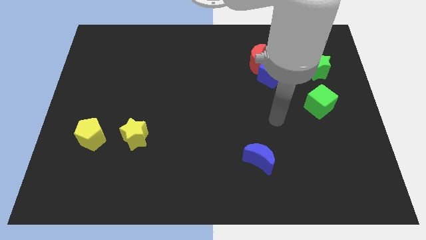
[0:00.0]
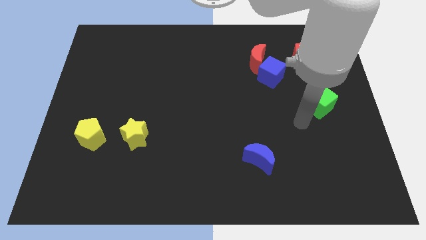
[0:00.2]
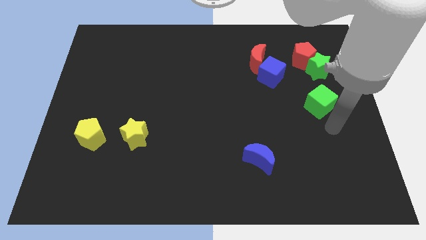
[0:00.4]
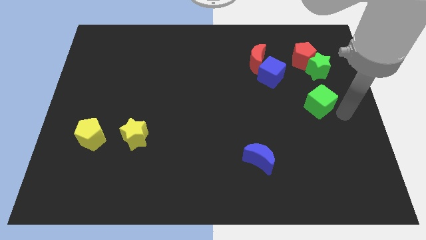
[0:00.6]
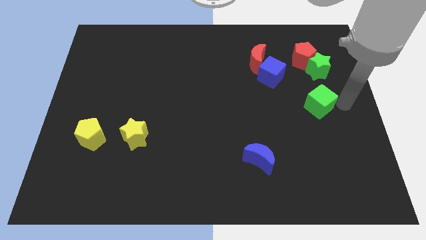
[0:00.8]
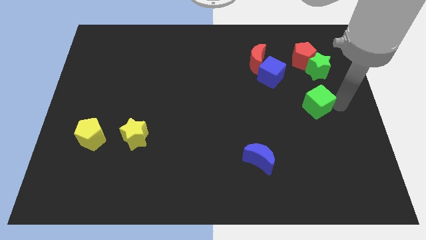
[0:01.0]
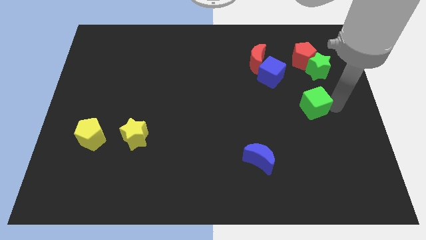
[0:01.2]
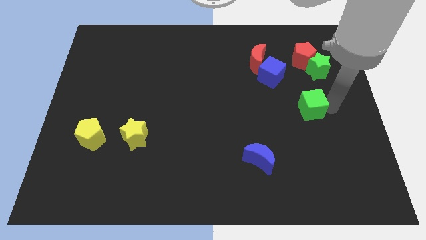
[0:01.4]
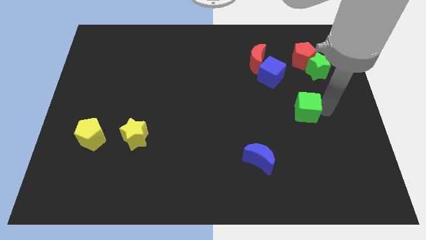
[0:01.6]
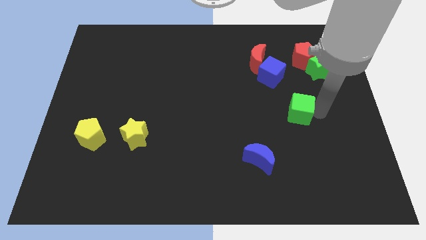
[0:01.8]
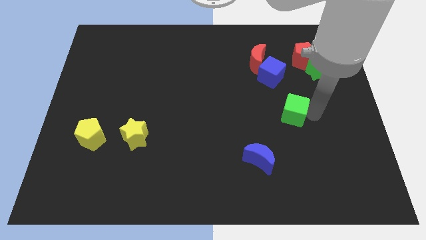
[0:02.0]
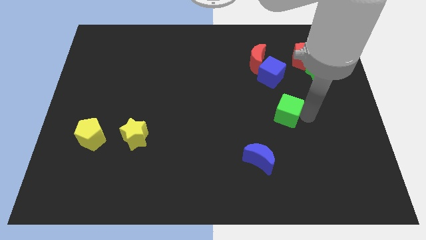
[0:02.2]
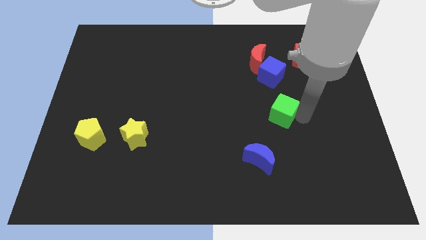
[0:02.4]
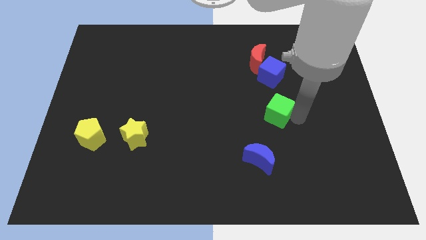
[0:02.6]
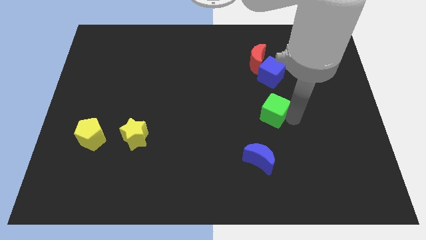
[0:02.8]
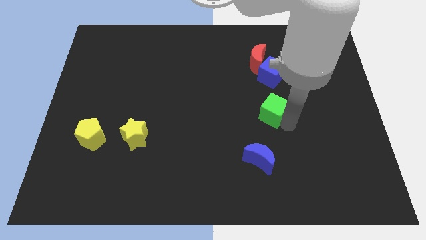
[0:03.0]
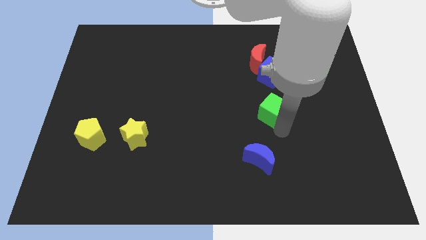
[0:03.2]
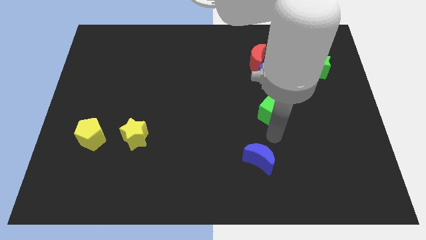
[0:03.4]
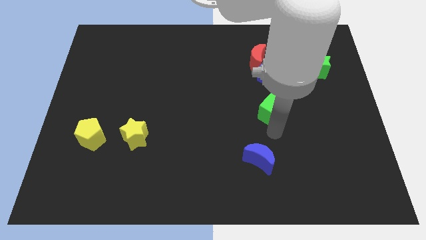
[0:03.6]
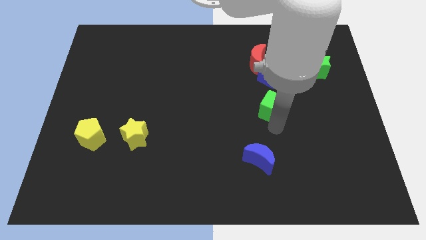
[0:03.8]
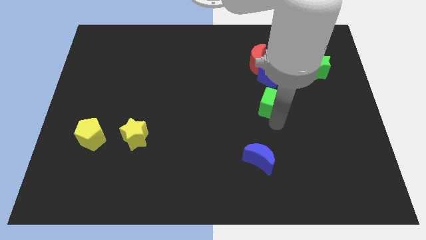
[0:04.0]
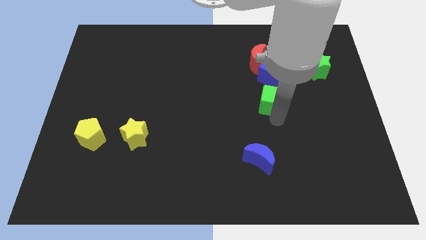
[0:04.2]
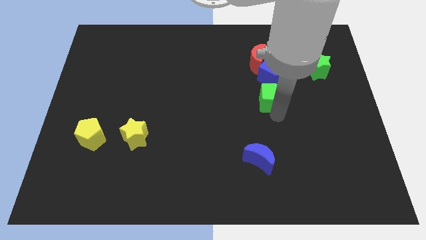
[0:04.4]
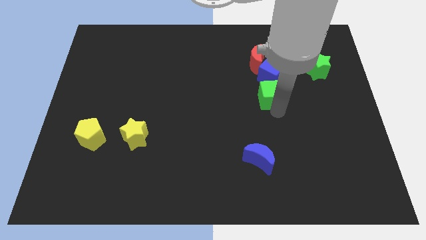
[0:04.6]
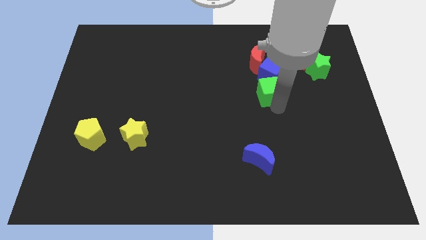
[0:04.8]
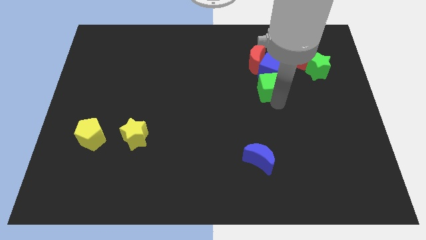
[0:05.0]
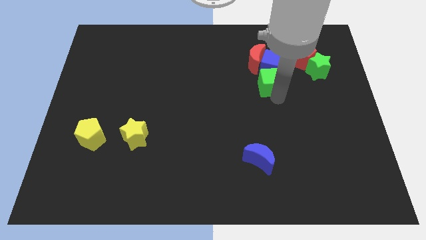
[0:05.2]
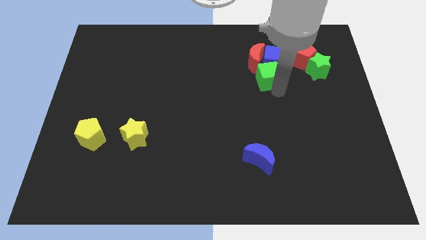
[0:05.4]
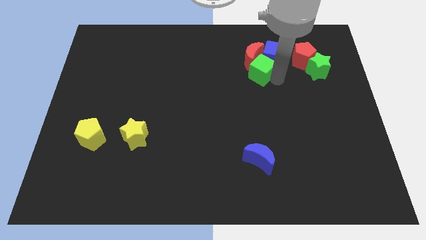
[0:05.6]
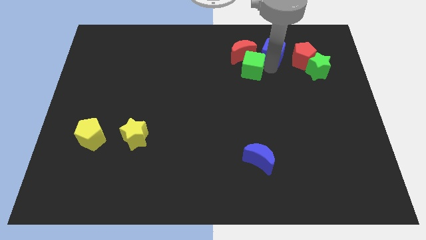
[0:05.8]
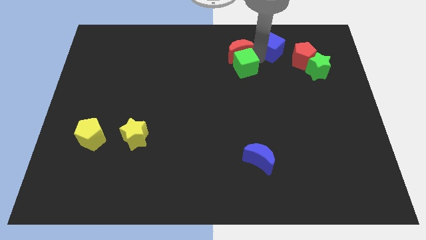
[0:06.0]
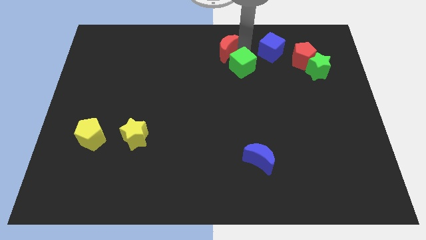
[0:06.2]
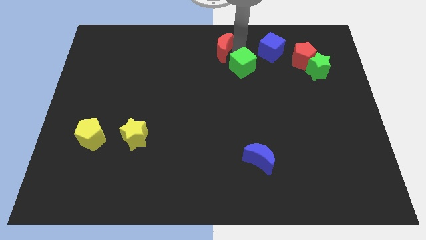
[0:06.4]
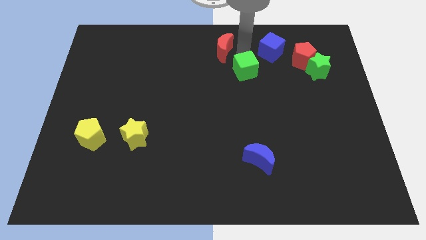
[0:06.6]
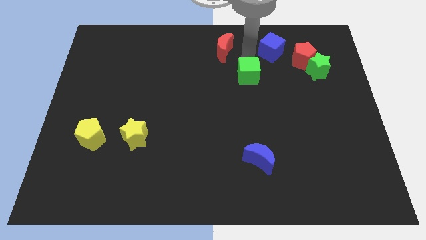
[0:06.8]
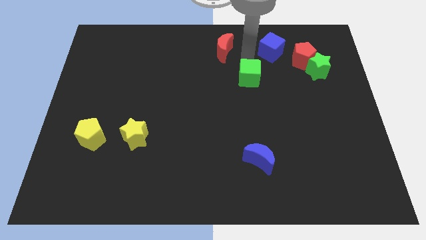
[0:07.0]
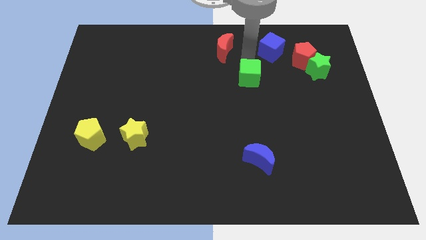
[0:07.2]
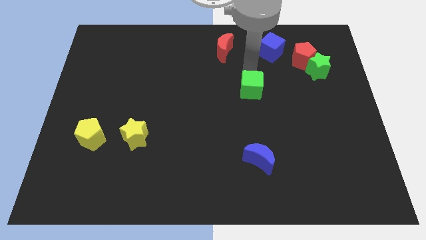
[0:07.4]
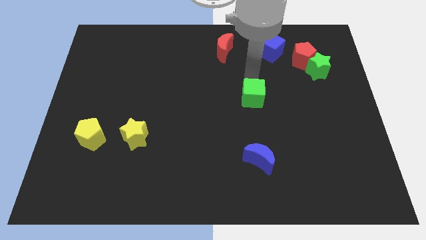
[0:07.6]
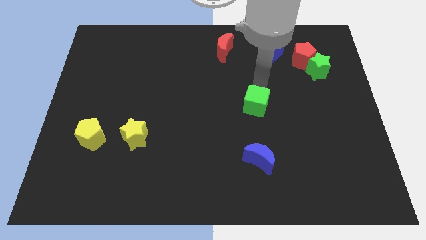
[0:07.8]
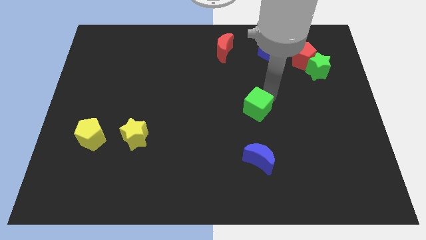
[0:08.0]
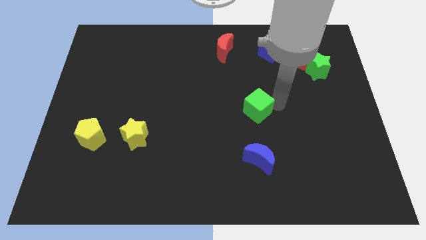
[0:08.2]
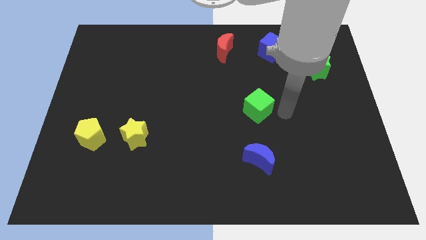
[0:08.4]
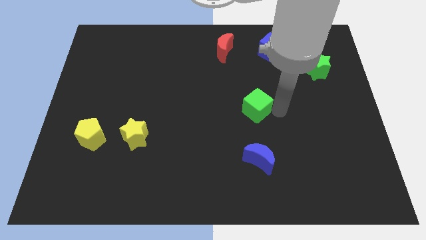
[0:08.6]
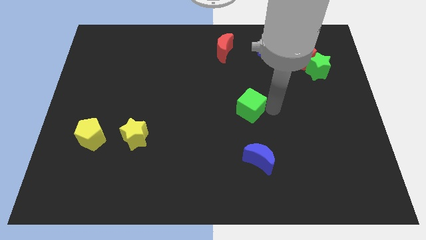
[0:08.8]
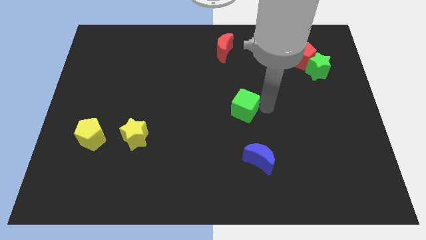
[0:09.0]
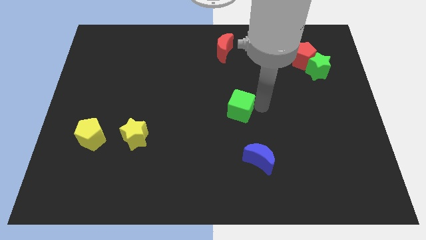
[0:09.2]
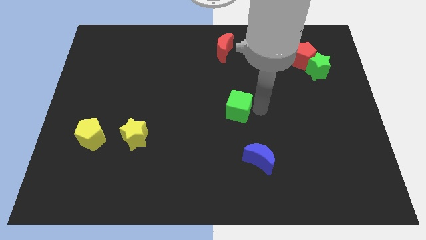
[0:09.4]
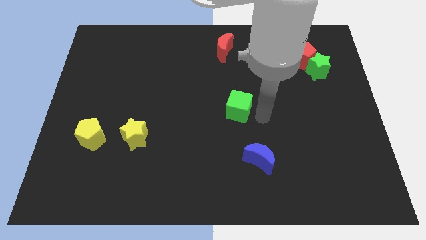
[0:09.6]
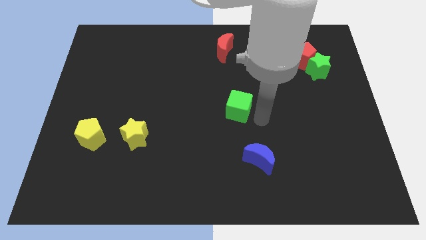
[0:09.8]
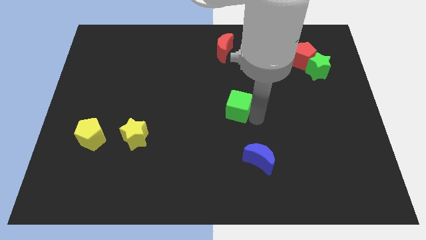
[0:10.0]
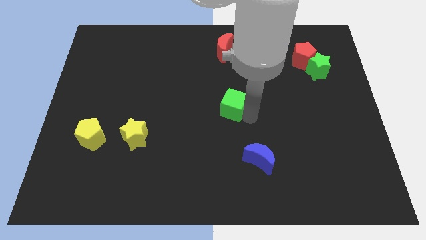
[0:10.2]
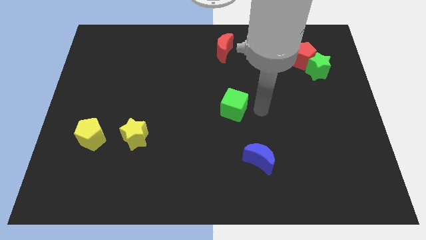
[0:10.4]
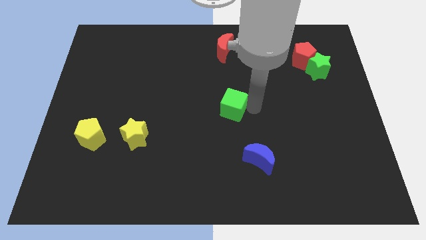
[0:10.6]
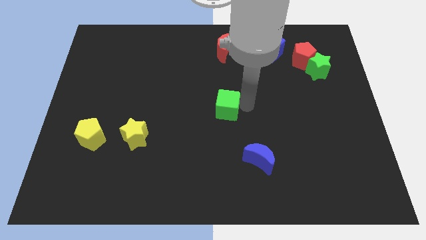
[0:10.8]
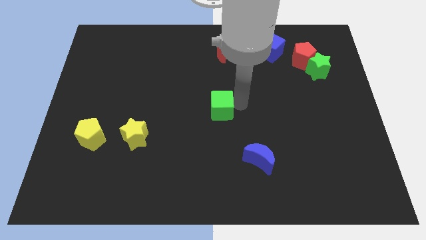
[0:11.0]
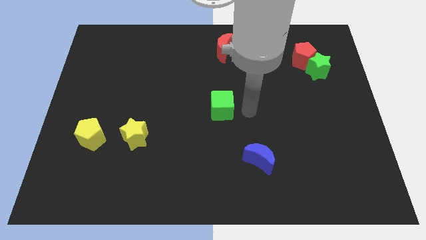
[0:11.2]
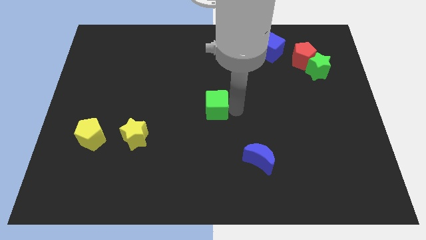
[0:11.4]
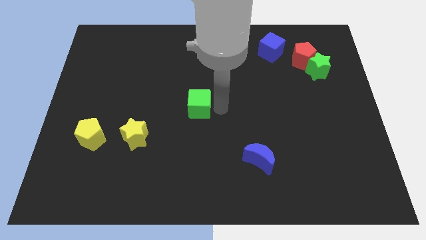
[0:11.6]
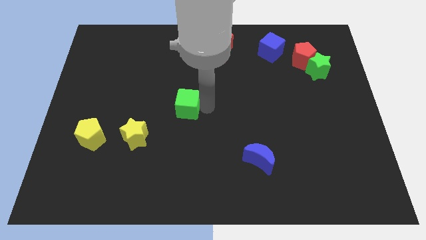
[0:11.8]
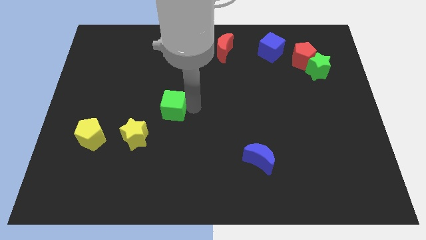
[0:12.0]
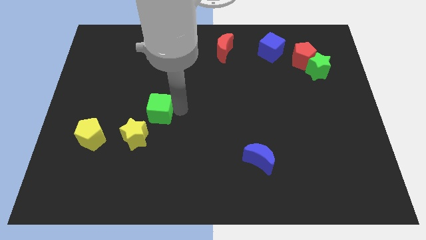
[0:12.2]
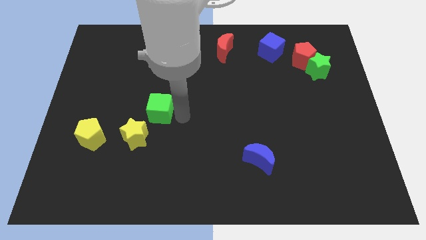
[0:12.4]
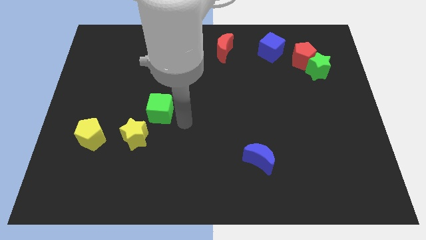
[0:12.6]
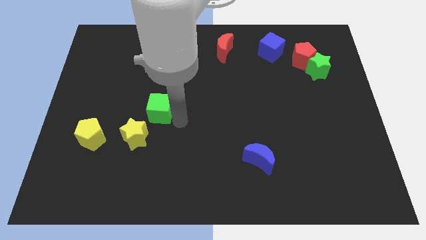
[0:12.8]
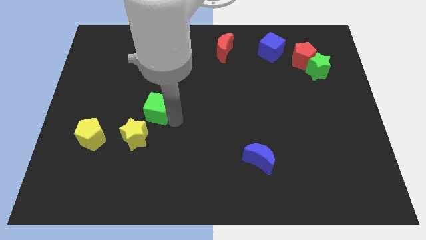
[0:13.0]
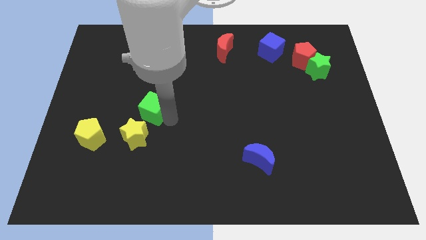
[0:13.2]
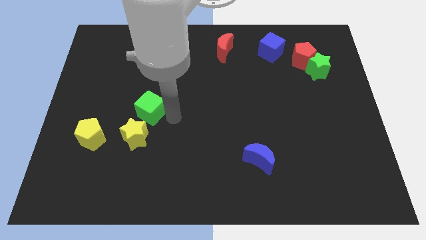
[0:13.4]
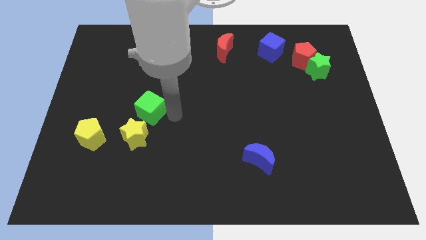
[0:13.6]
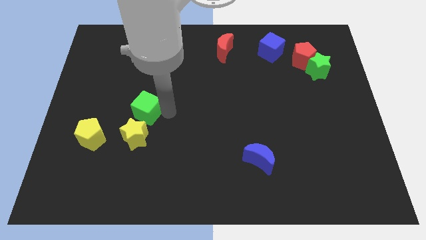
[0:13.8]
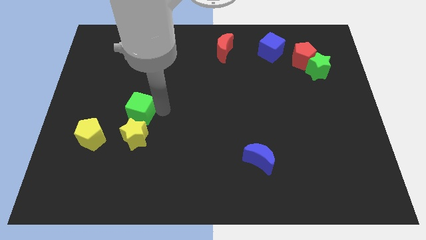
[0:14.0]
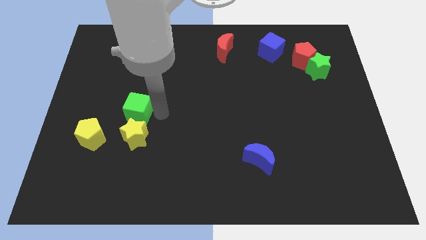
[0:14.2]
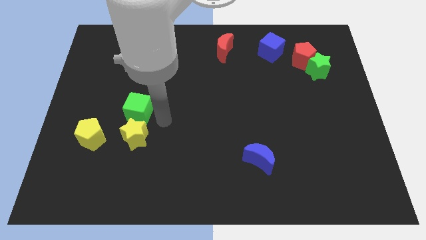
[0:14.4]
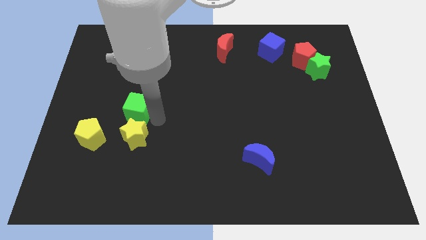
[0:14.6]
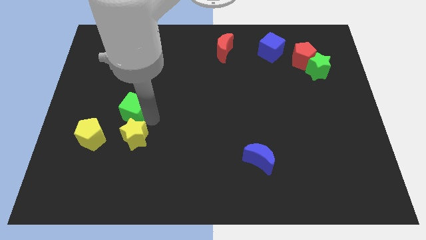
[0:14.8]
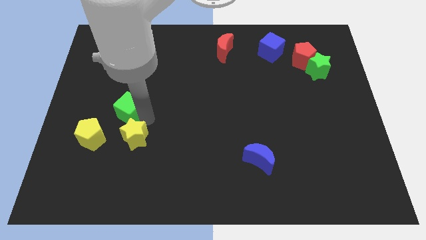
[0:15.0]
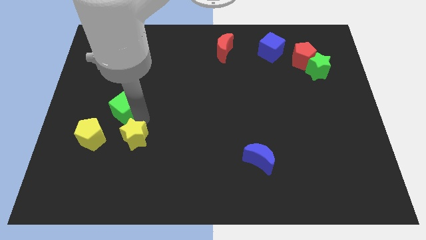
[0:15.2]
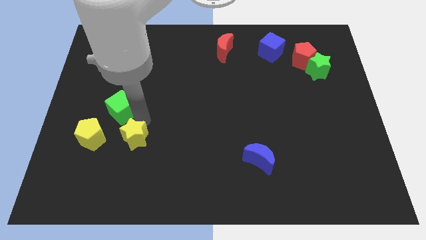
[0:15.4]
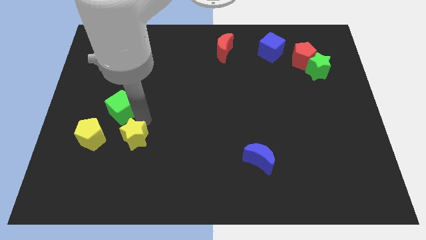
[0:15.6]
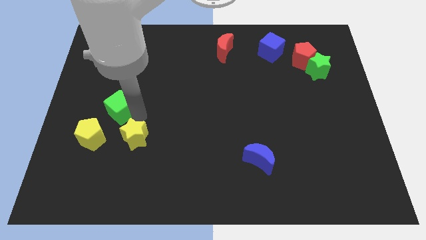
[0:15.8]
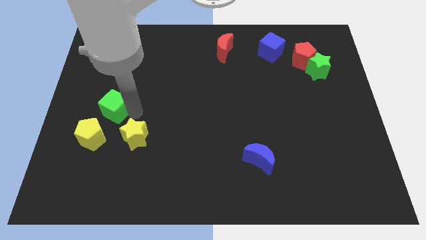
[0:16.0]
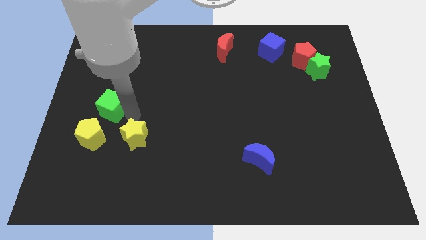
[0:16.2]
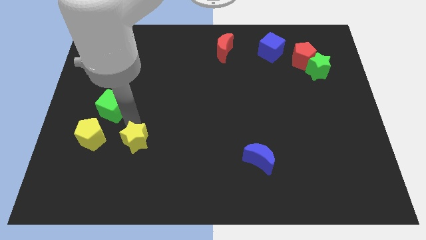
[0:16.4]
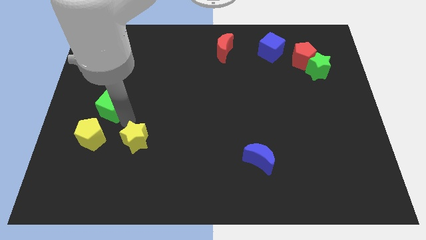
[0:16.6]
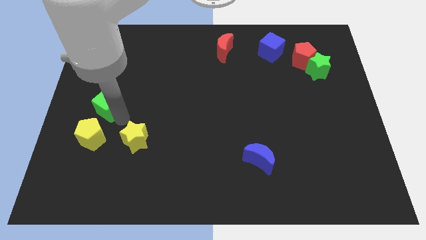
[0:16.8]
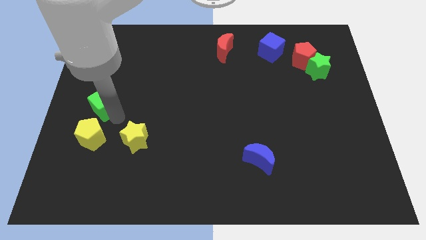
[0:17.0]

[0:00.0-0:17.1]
put the green cube to the left side
